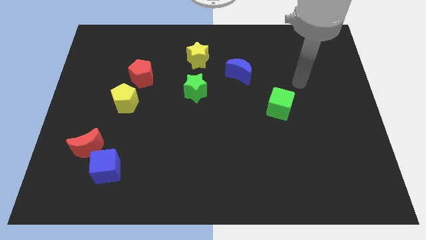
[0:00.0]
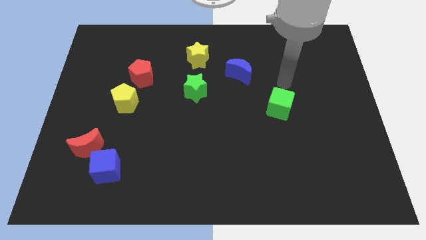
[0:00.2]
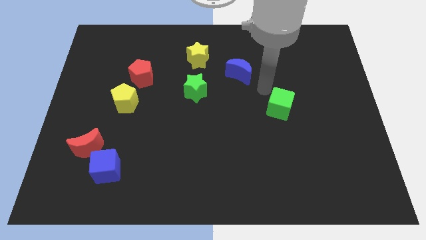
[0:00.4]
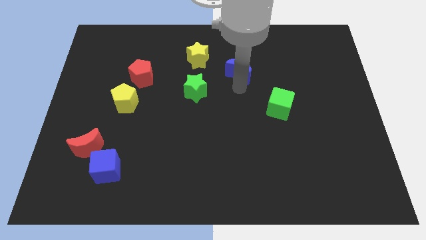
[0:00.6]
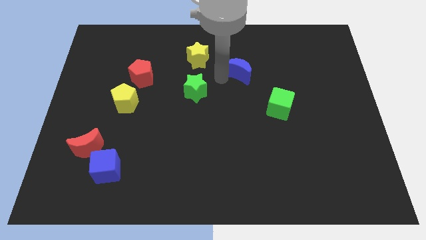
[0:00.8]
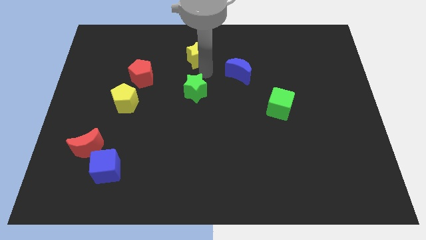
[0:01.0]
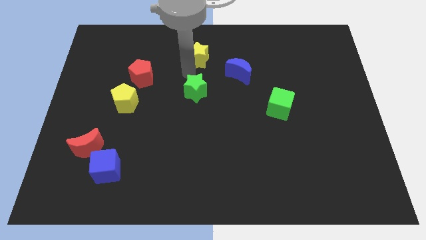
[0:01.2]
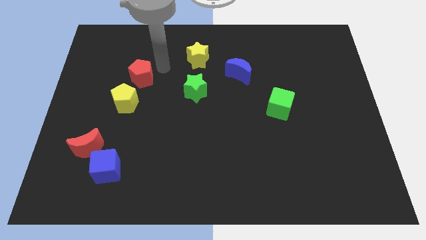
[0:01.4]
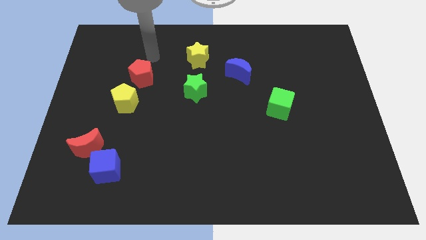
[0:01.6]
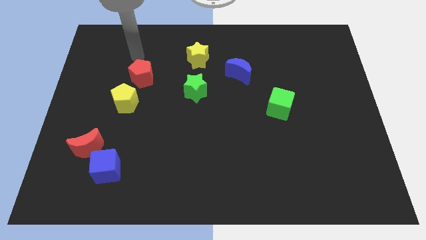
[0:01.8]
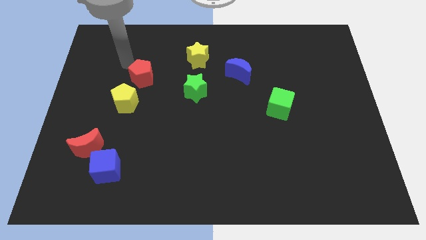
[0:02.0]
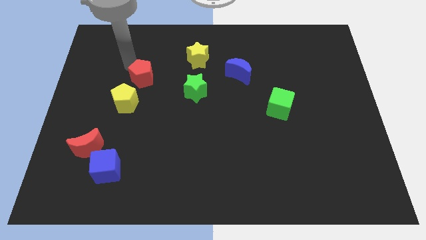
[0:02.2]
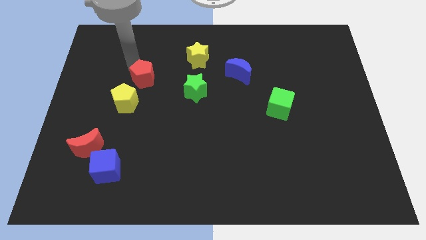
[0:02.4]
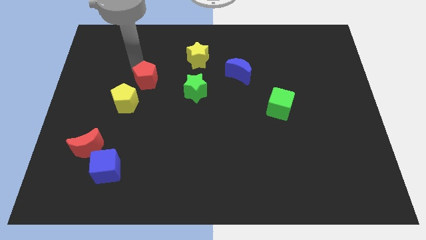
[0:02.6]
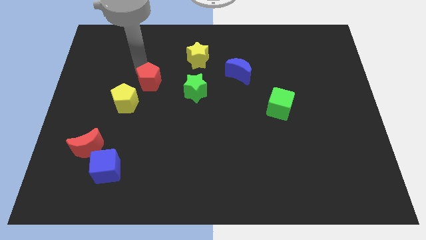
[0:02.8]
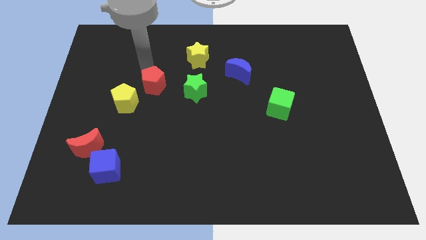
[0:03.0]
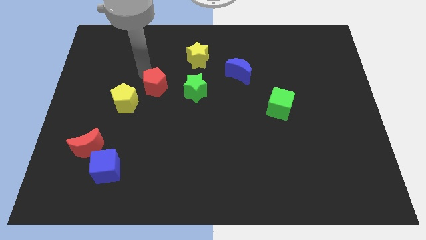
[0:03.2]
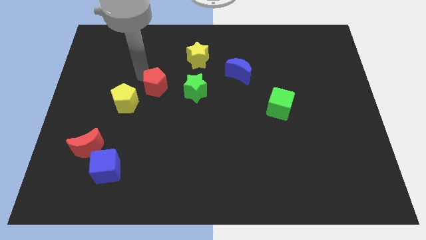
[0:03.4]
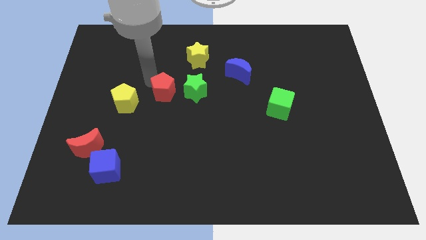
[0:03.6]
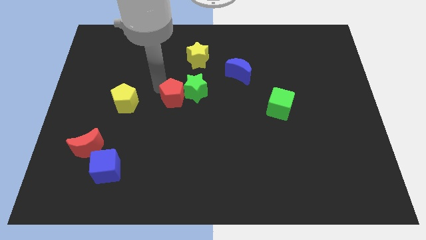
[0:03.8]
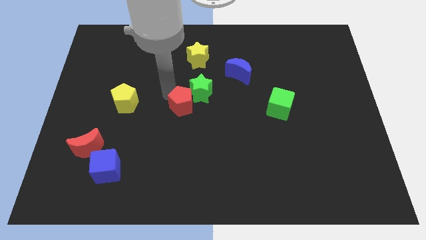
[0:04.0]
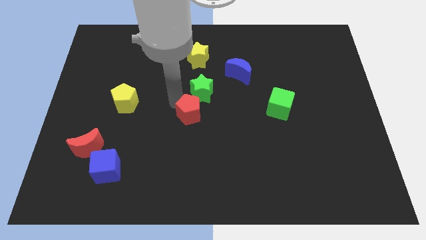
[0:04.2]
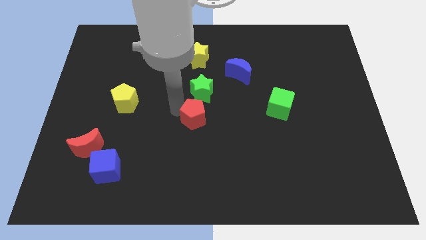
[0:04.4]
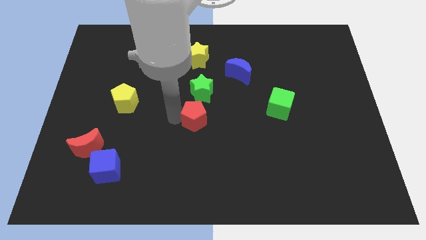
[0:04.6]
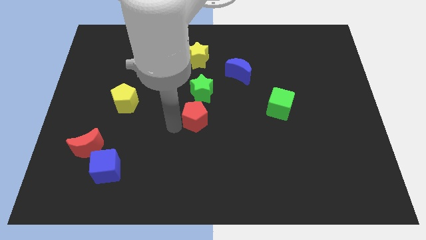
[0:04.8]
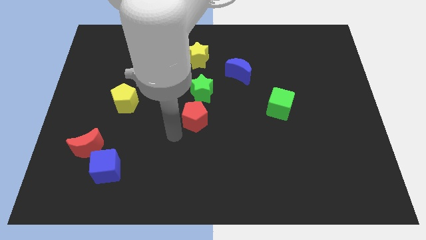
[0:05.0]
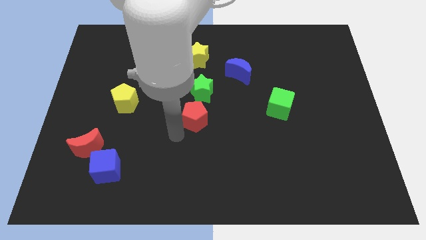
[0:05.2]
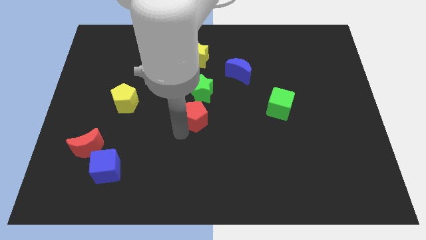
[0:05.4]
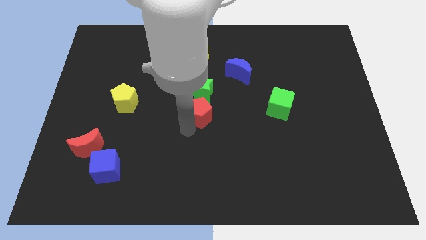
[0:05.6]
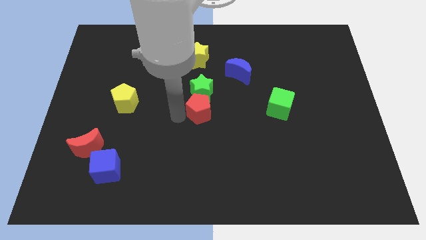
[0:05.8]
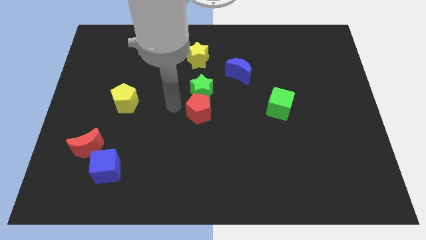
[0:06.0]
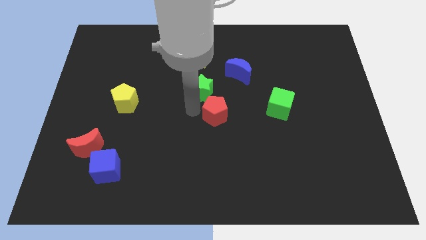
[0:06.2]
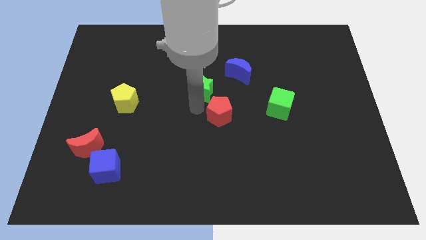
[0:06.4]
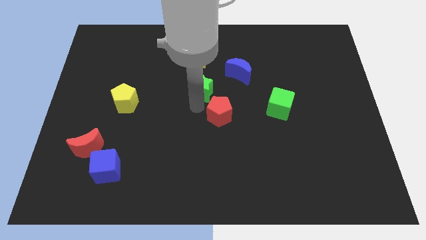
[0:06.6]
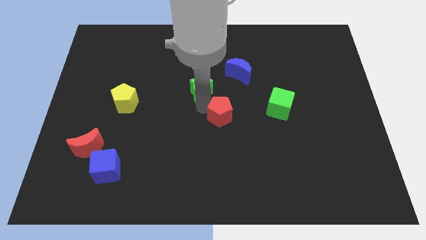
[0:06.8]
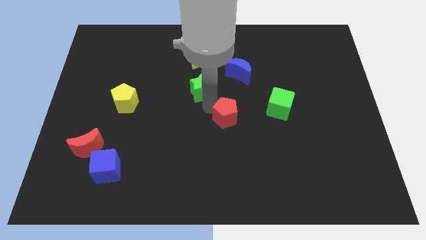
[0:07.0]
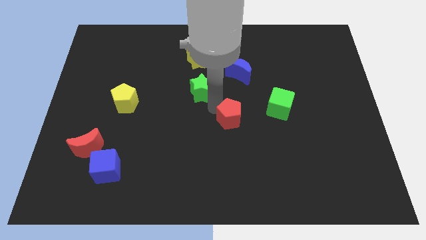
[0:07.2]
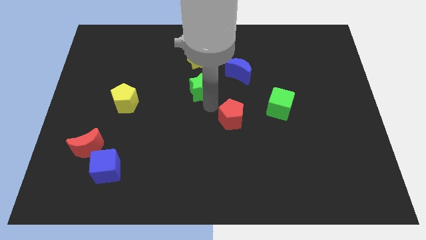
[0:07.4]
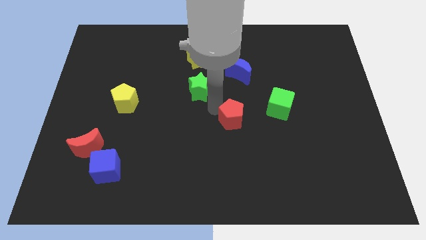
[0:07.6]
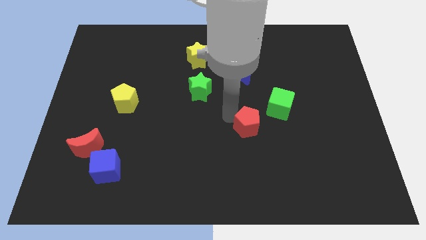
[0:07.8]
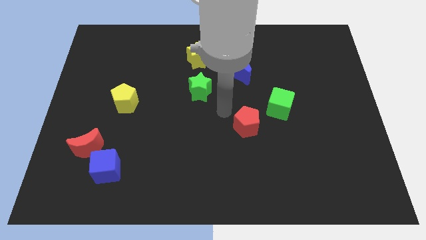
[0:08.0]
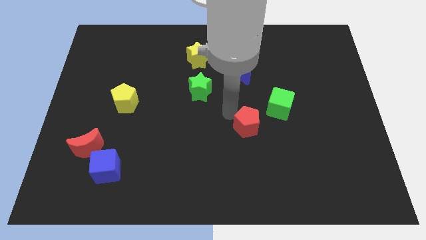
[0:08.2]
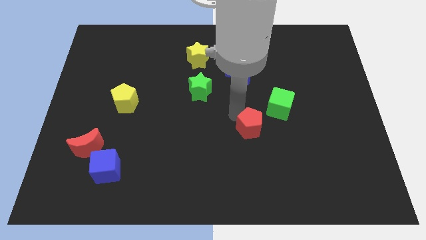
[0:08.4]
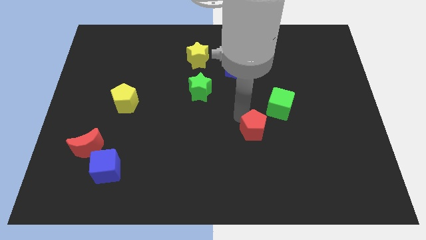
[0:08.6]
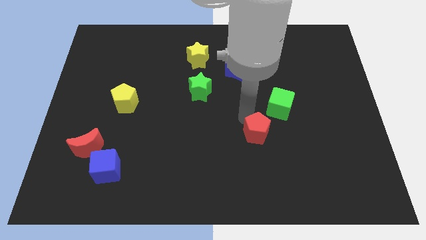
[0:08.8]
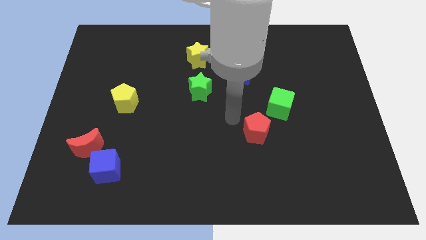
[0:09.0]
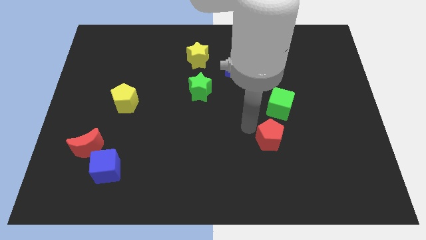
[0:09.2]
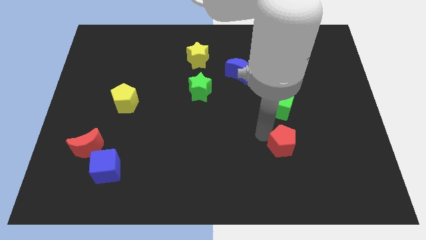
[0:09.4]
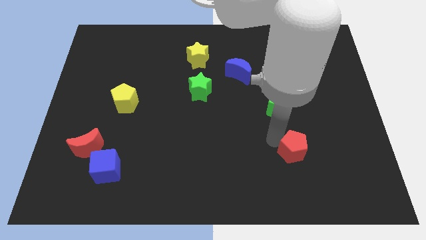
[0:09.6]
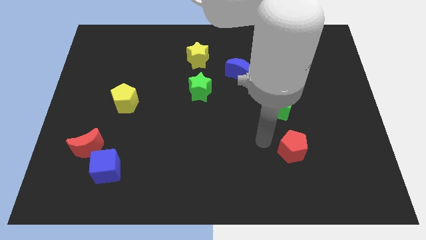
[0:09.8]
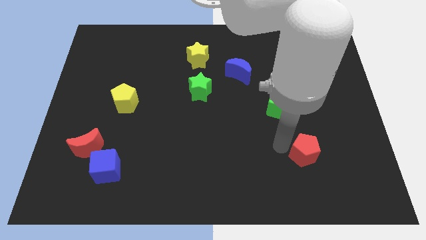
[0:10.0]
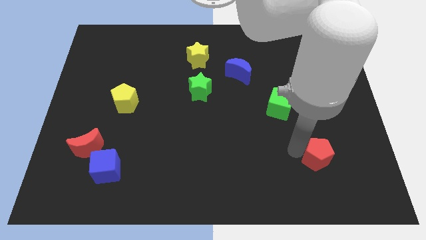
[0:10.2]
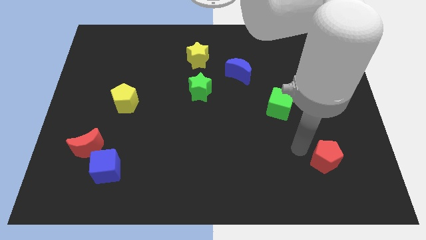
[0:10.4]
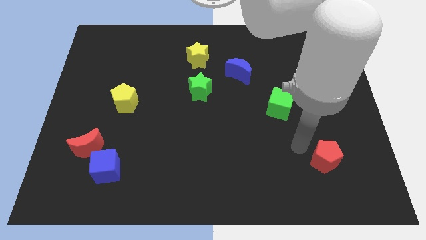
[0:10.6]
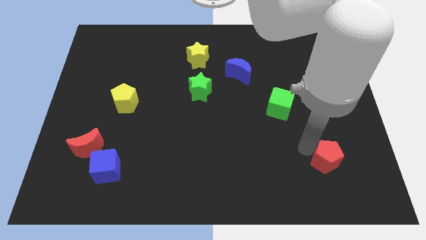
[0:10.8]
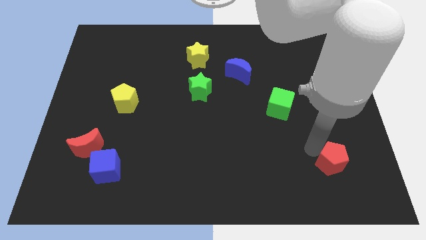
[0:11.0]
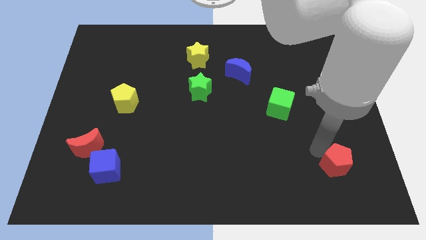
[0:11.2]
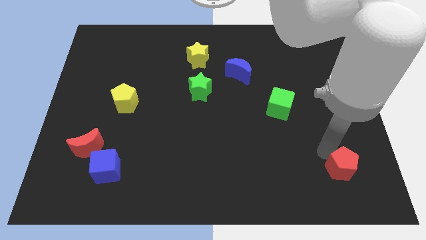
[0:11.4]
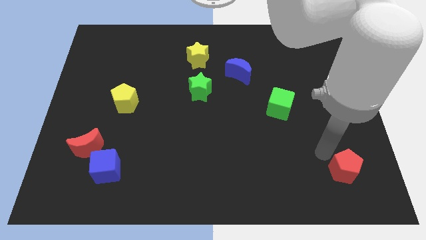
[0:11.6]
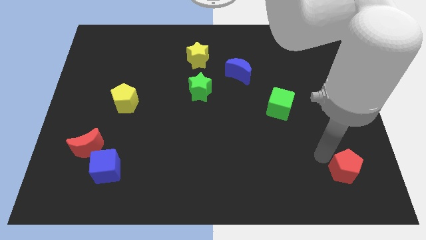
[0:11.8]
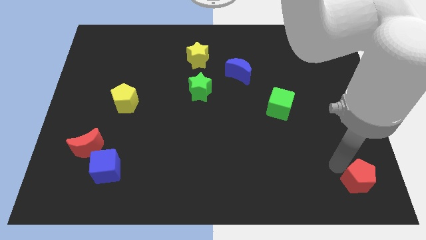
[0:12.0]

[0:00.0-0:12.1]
move the red pentagon to the lower right corner
